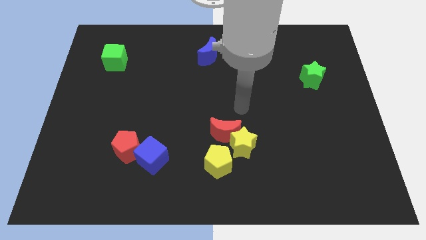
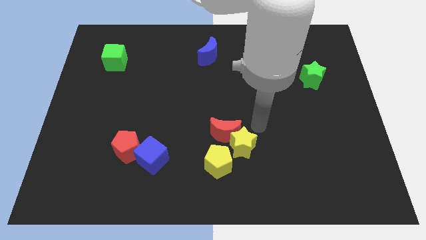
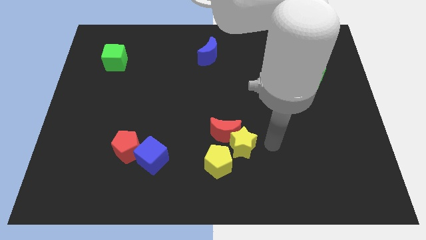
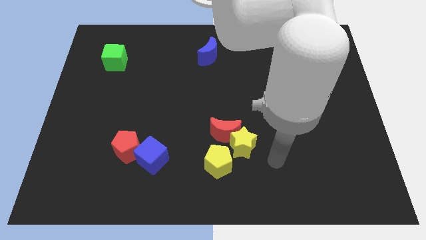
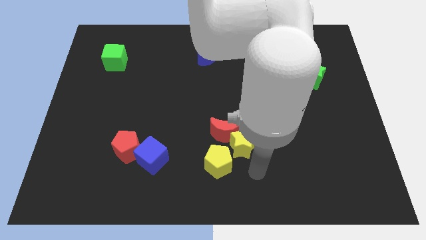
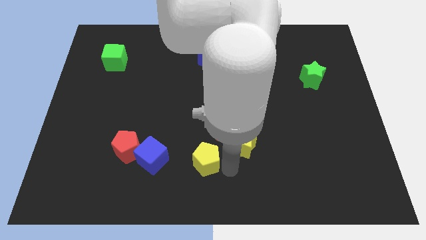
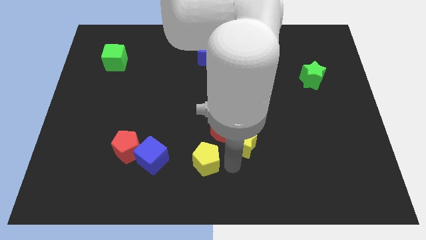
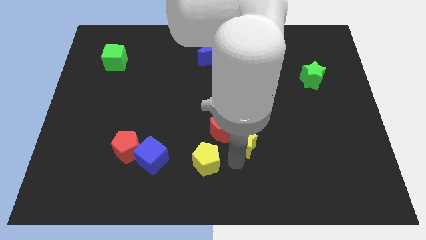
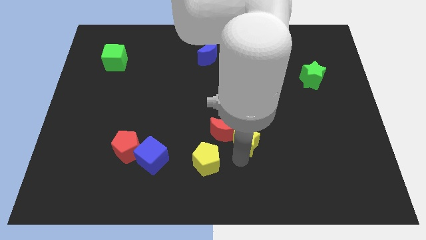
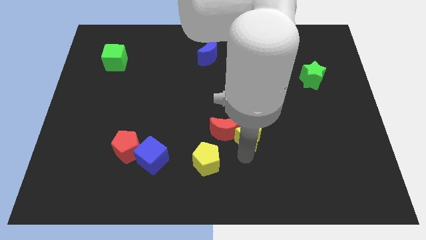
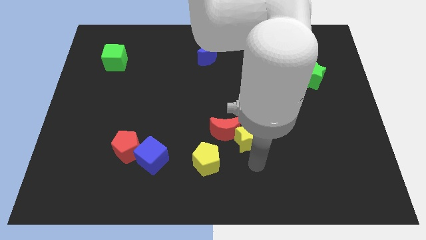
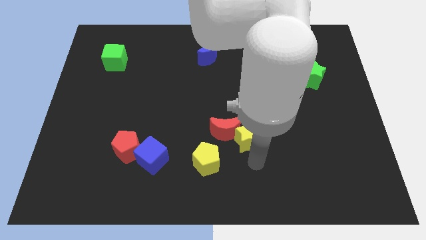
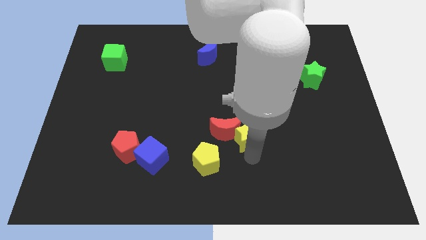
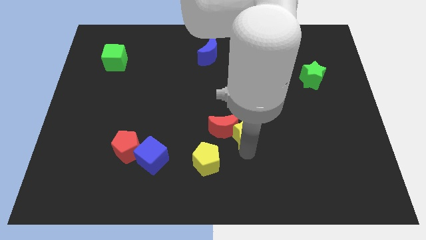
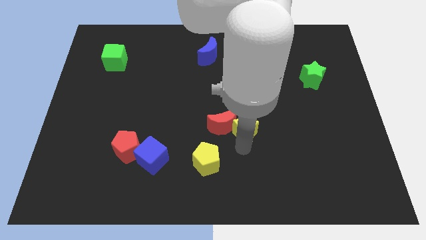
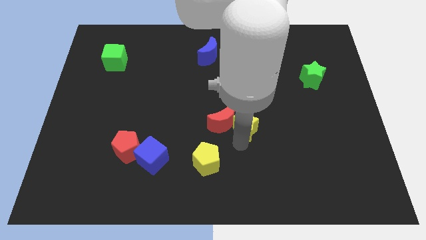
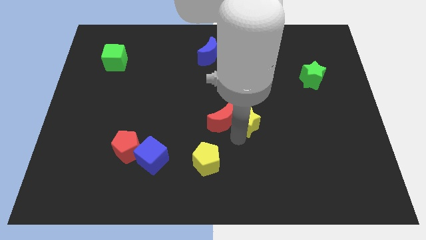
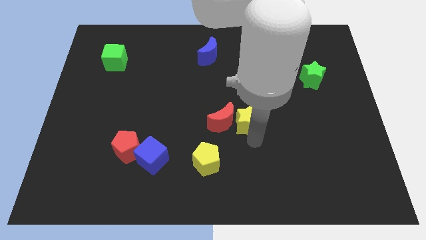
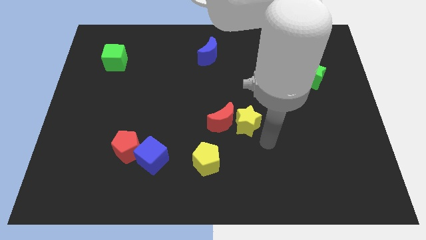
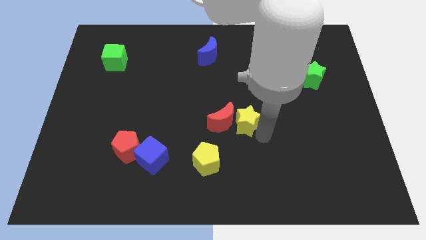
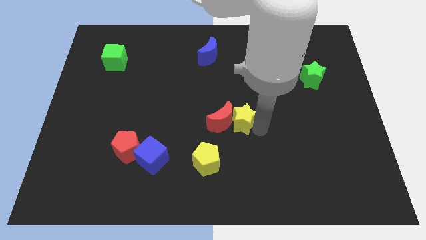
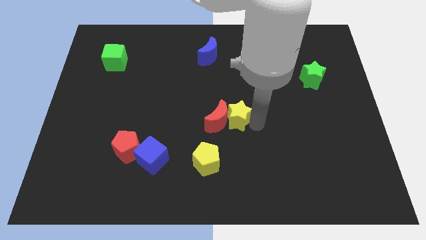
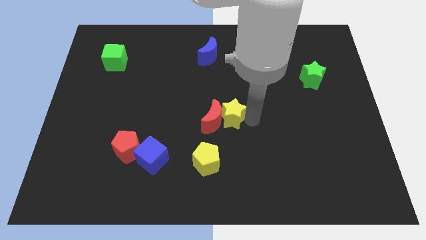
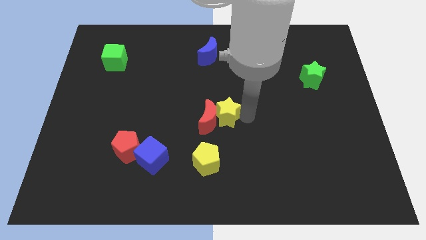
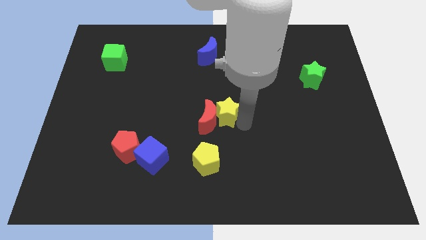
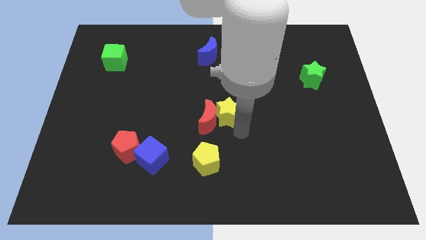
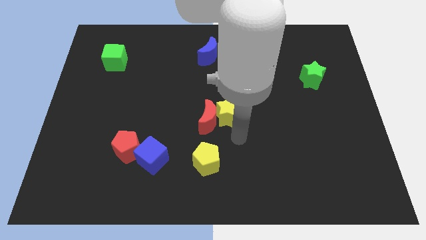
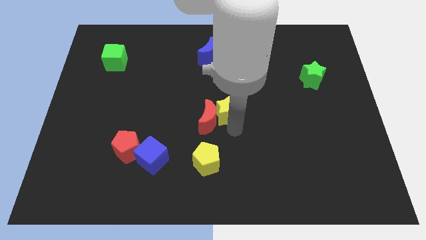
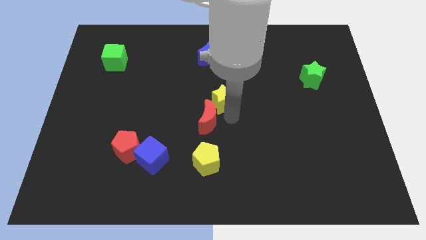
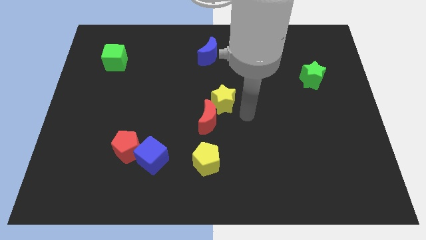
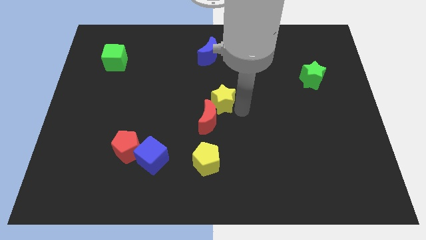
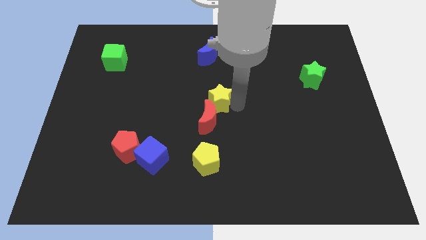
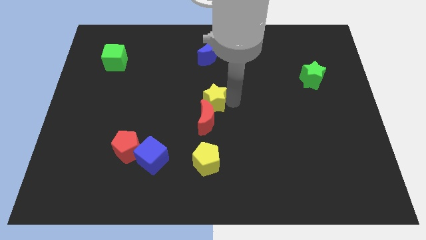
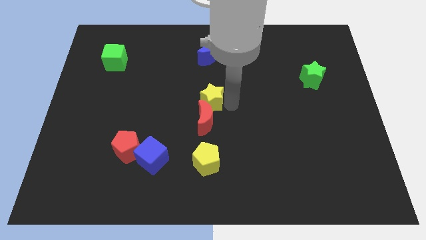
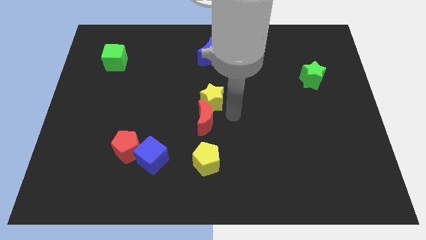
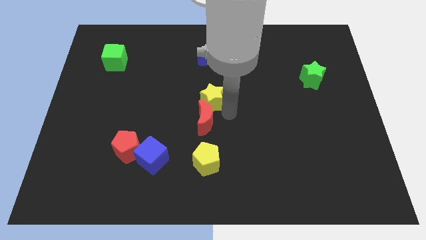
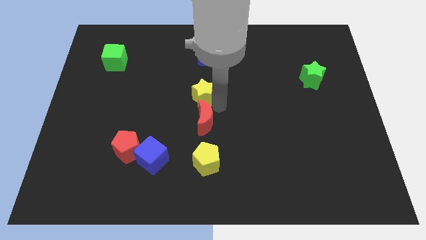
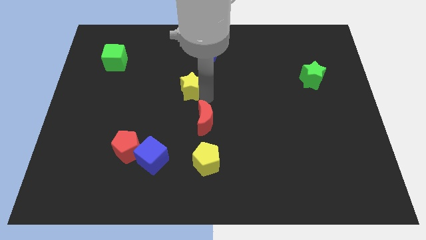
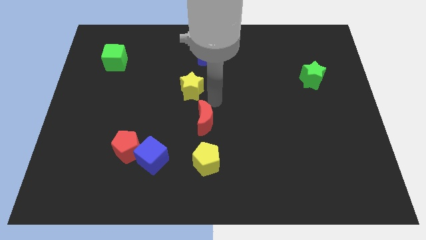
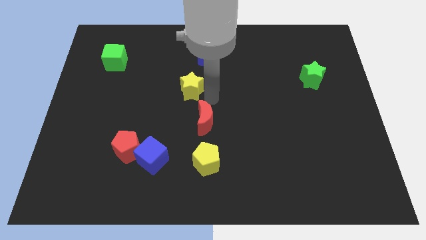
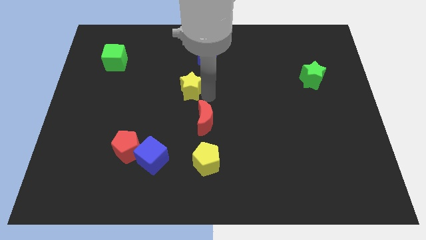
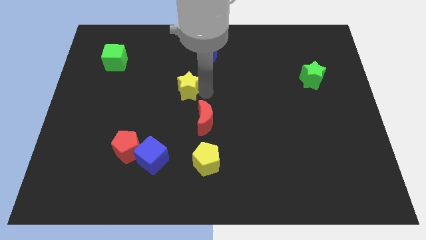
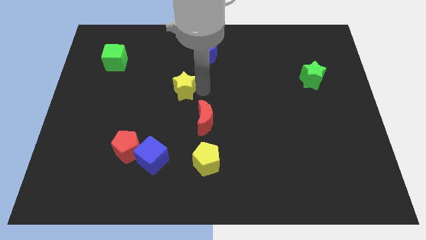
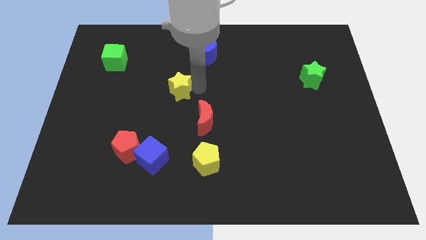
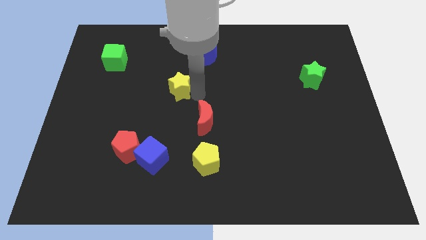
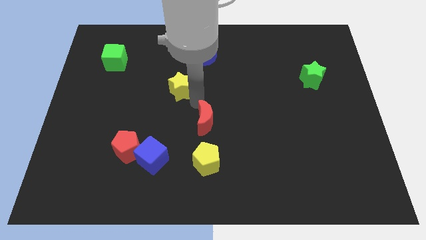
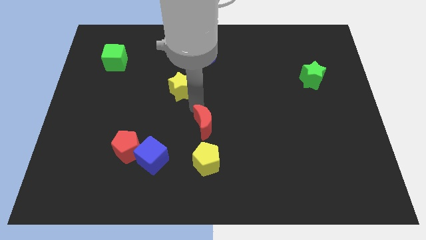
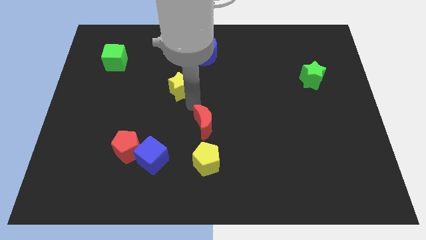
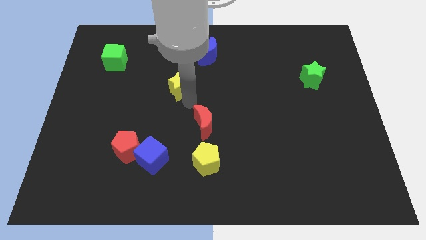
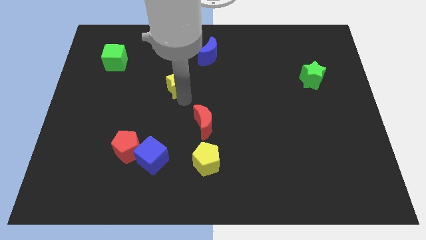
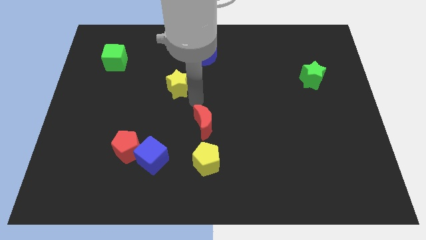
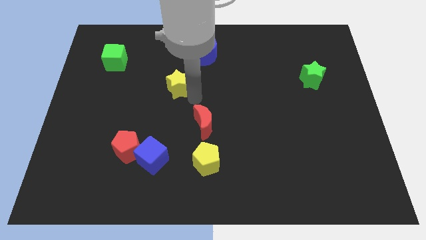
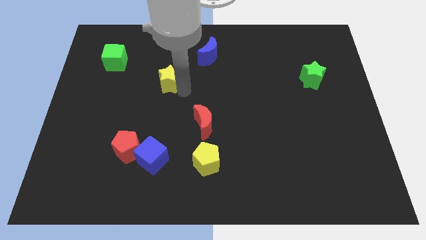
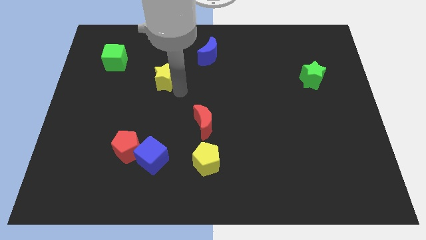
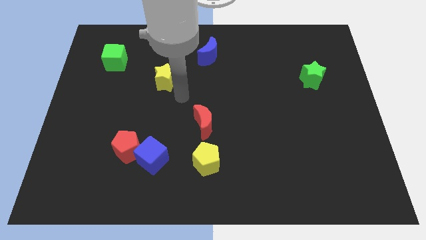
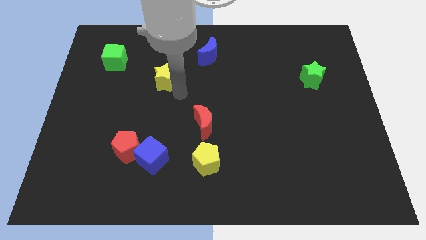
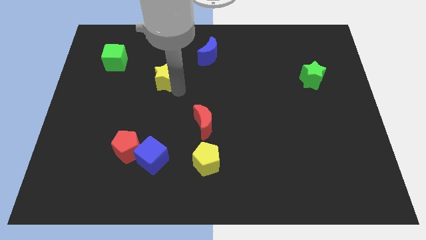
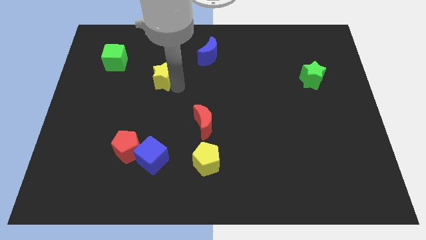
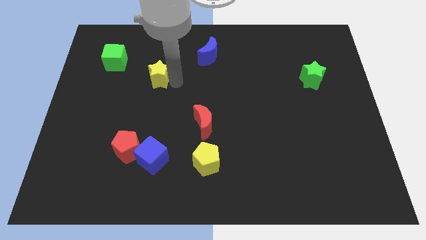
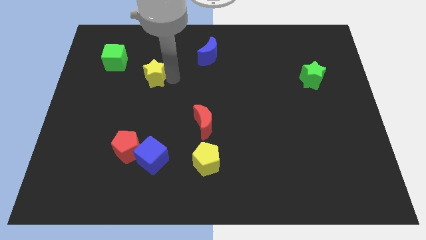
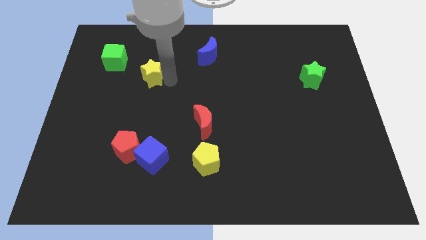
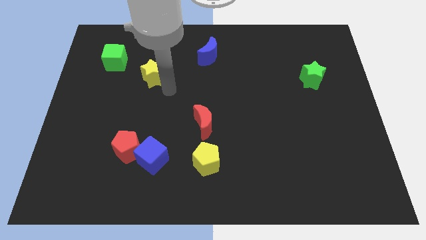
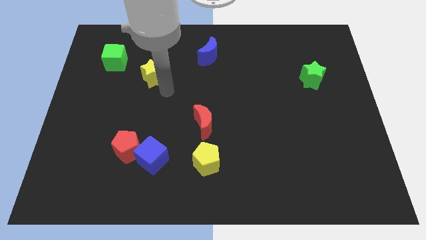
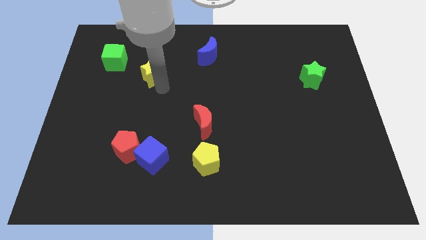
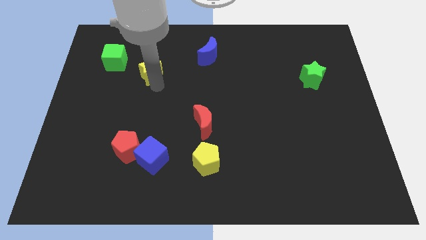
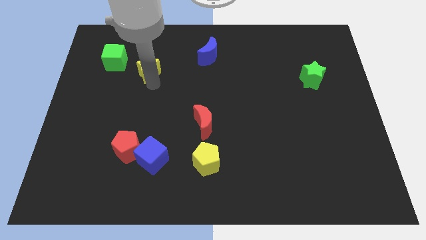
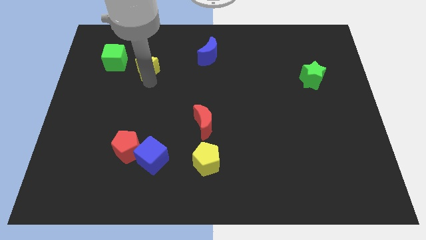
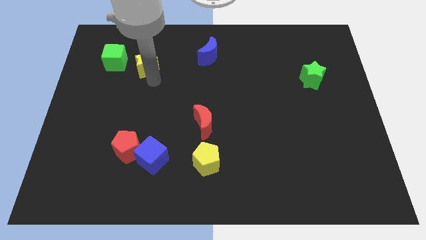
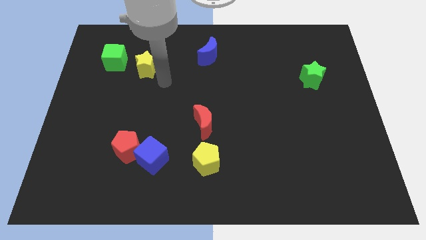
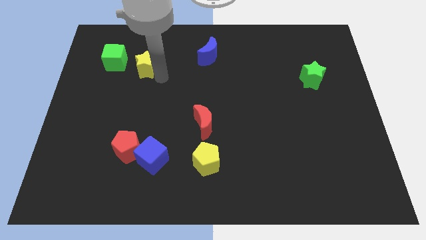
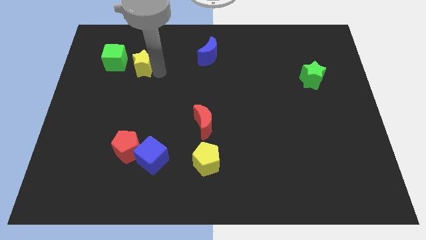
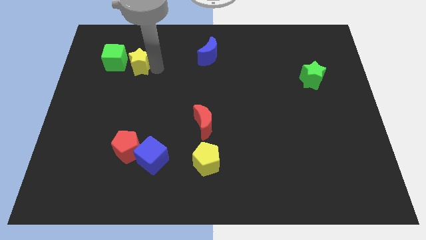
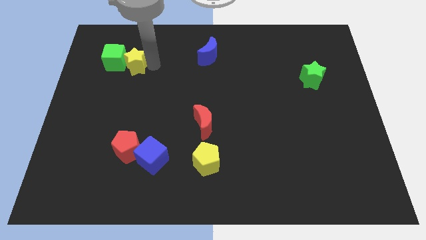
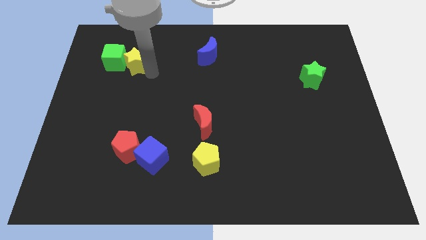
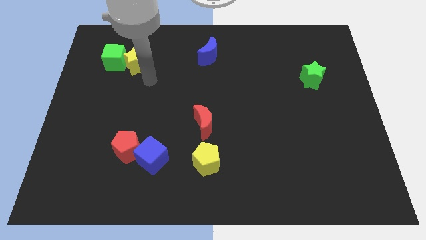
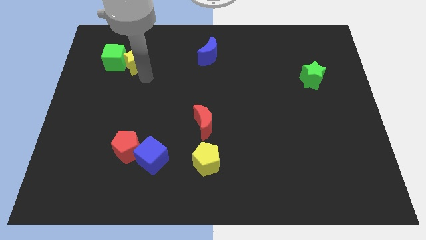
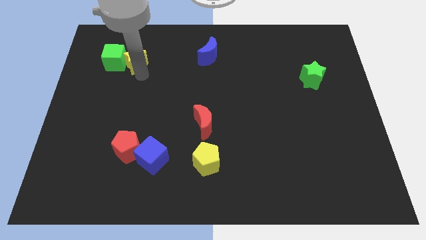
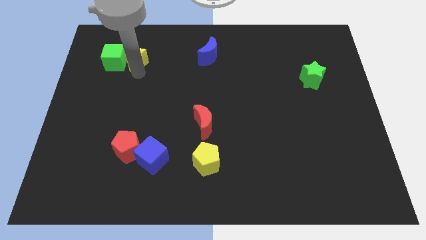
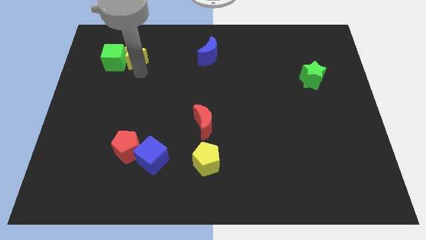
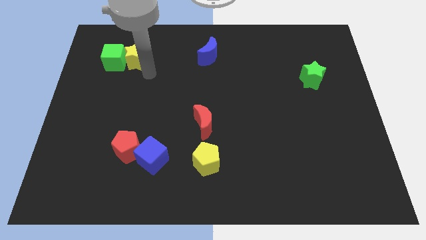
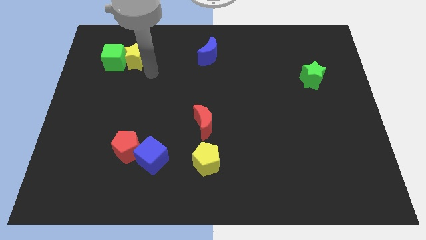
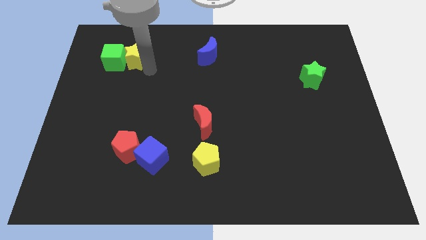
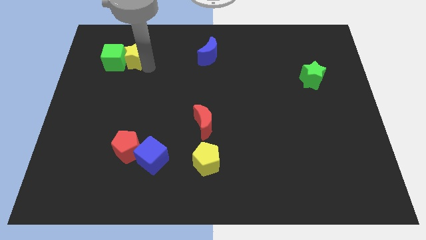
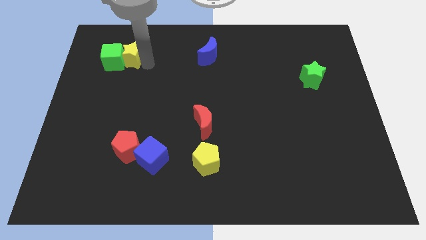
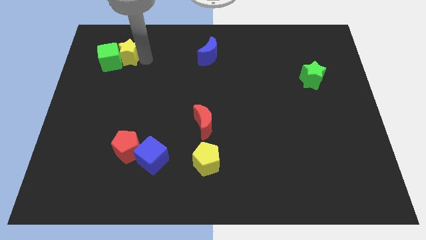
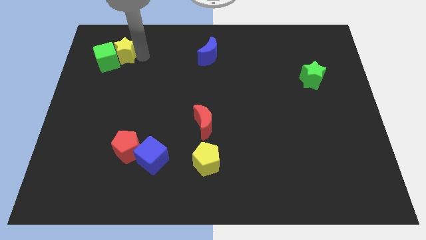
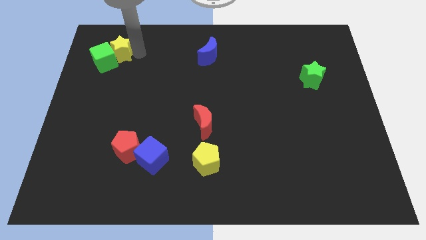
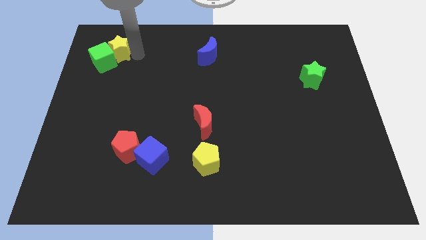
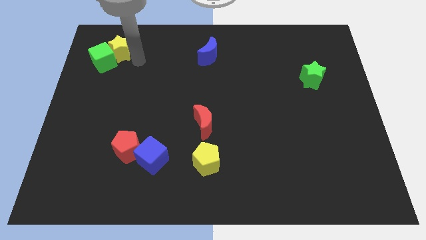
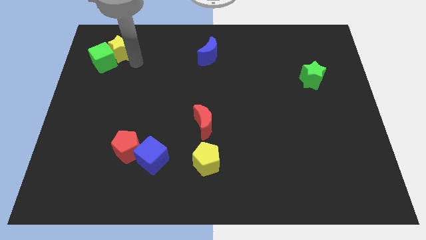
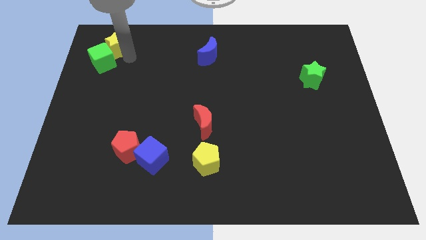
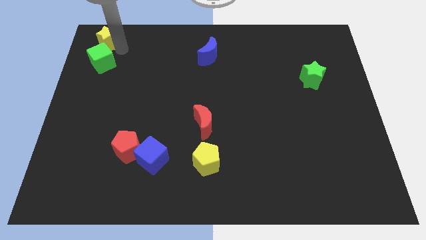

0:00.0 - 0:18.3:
put the yellow star to the top left corner
